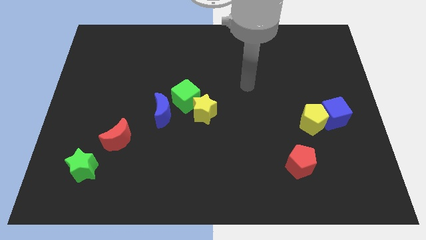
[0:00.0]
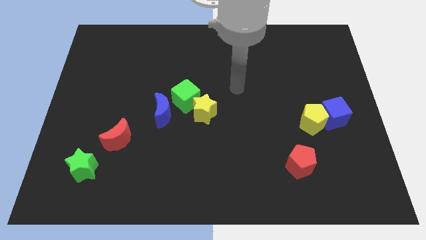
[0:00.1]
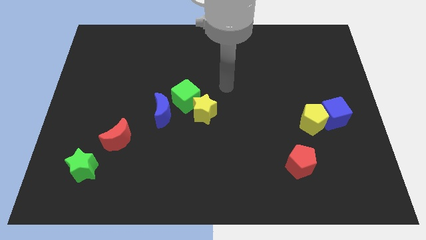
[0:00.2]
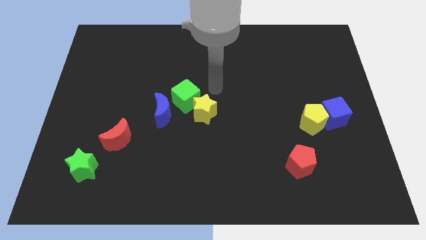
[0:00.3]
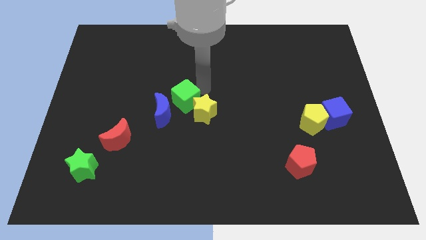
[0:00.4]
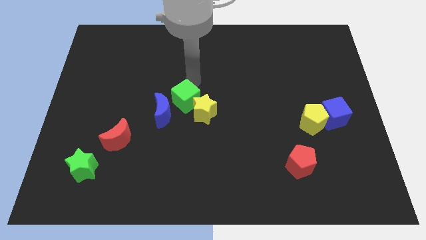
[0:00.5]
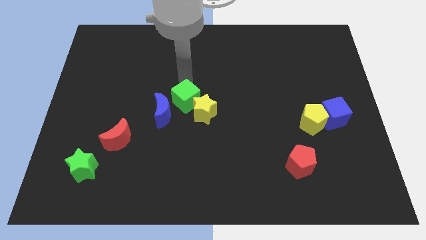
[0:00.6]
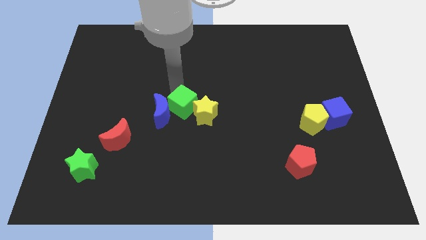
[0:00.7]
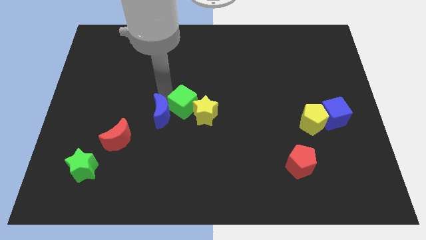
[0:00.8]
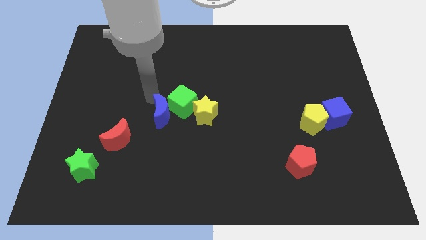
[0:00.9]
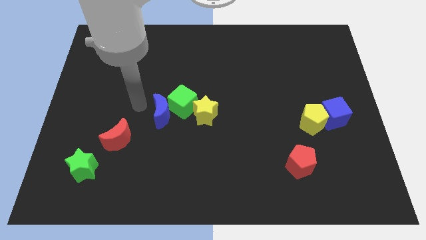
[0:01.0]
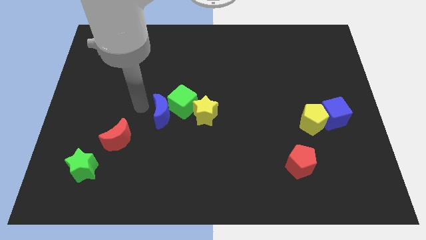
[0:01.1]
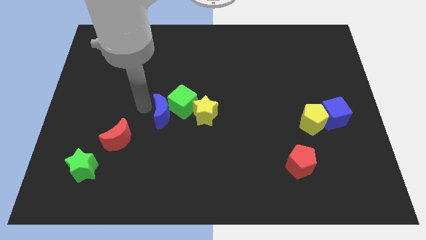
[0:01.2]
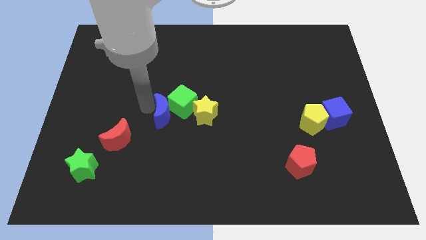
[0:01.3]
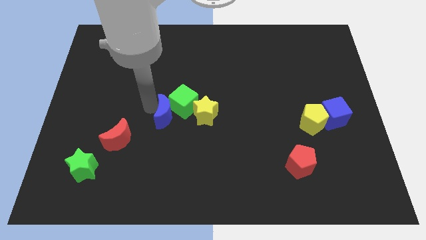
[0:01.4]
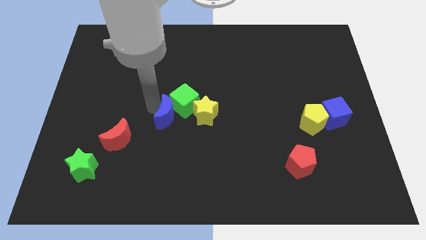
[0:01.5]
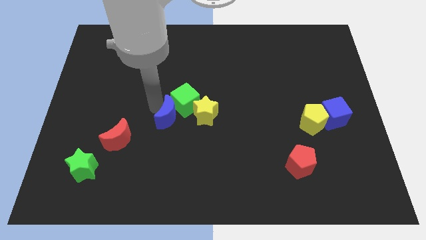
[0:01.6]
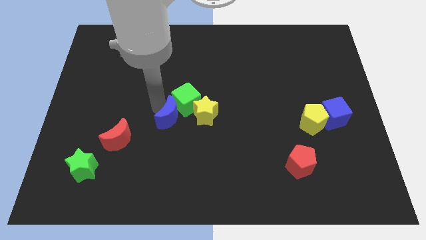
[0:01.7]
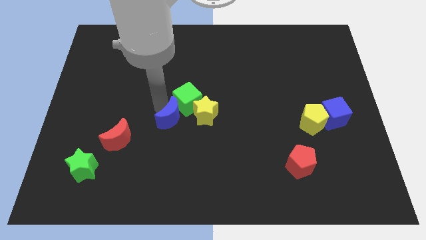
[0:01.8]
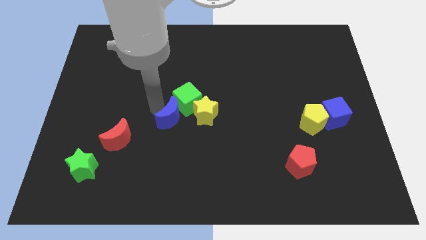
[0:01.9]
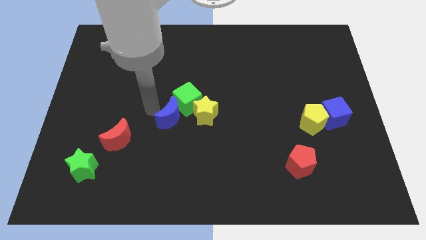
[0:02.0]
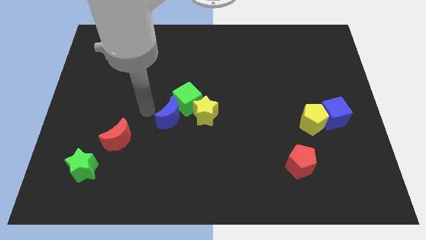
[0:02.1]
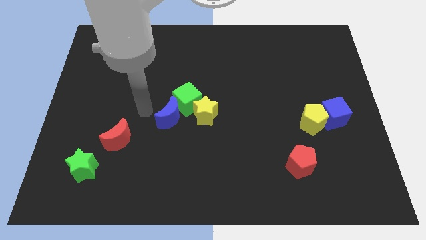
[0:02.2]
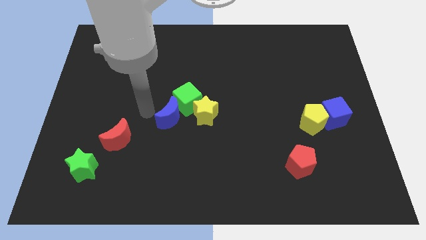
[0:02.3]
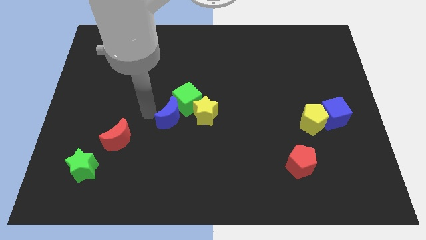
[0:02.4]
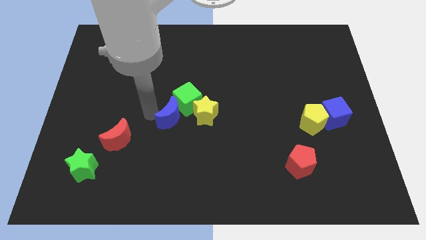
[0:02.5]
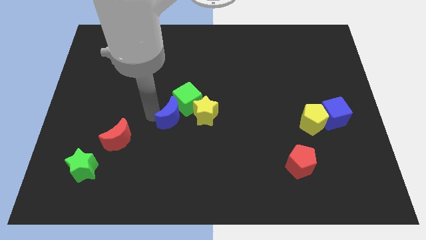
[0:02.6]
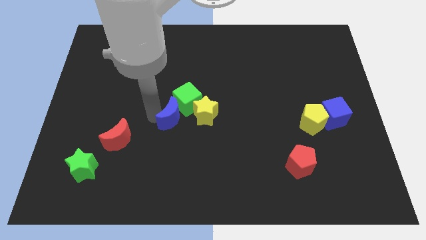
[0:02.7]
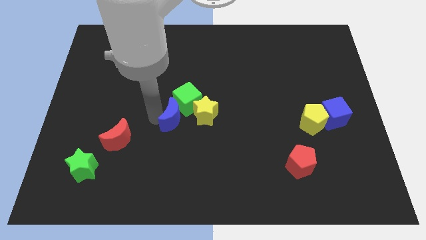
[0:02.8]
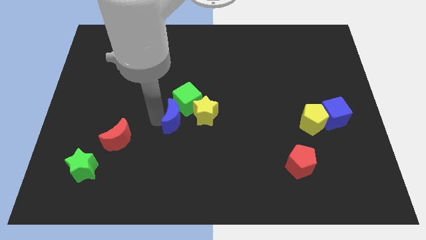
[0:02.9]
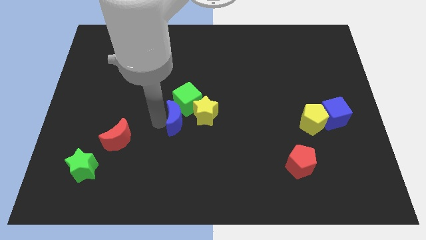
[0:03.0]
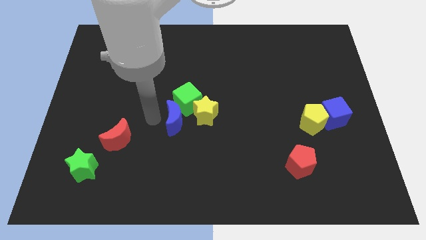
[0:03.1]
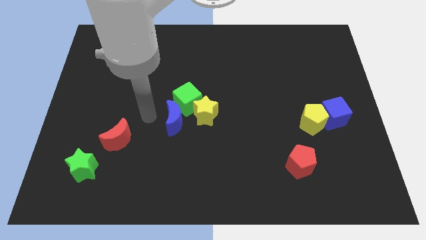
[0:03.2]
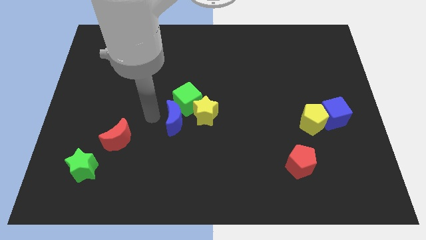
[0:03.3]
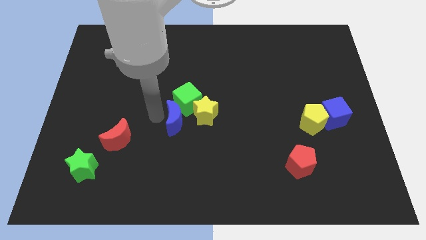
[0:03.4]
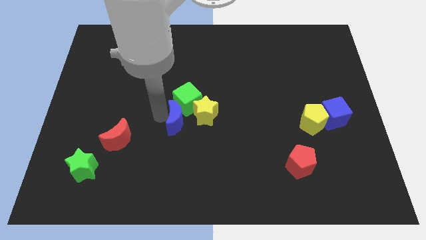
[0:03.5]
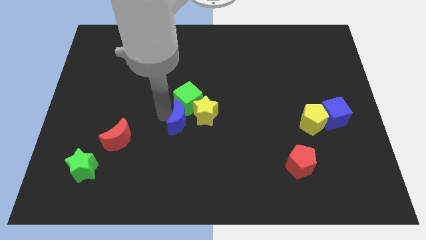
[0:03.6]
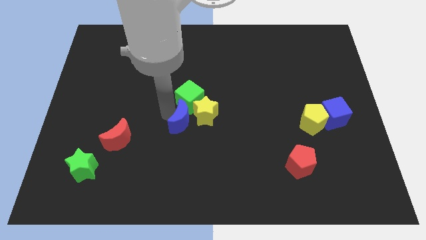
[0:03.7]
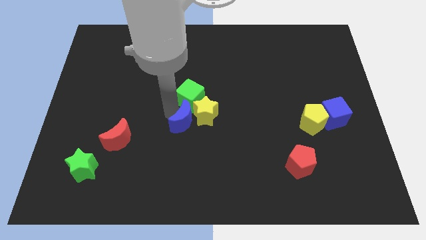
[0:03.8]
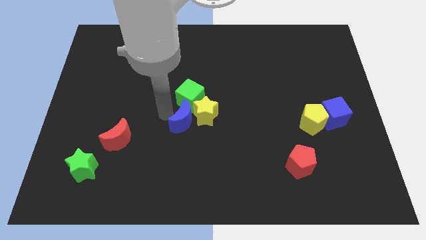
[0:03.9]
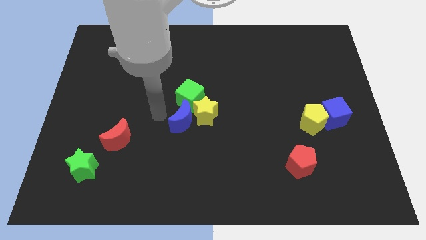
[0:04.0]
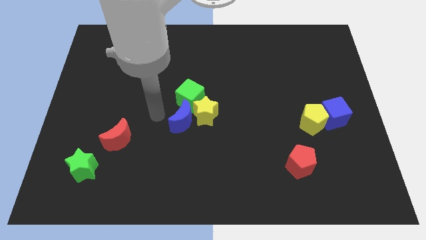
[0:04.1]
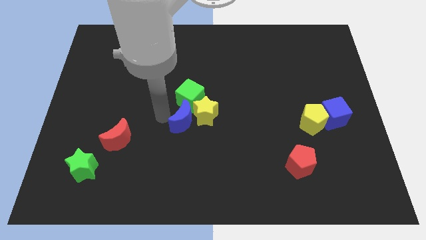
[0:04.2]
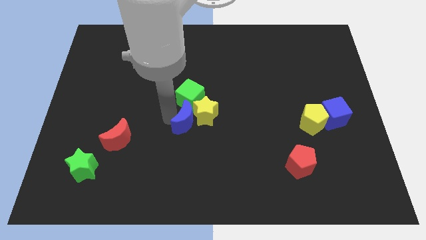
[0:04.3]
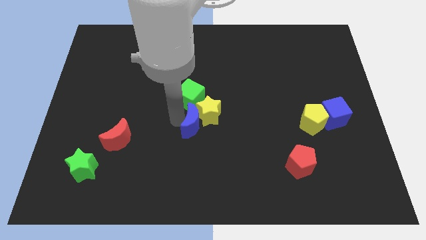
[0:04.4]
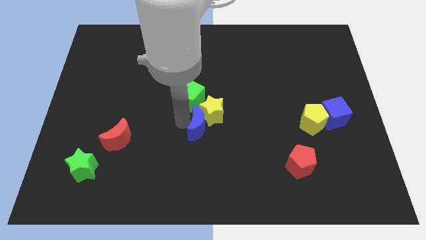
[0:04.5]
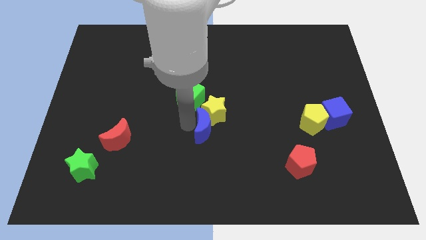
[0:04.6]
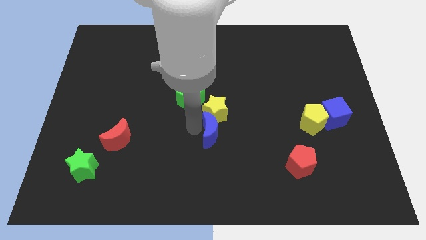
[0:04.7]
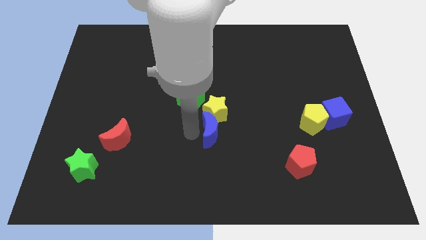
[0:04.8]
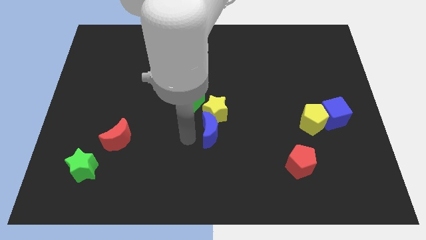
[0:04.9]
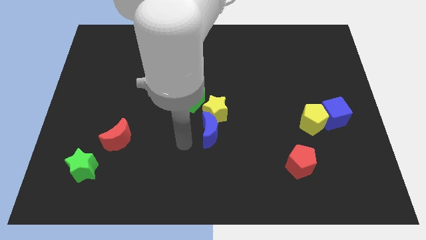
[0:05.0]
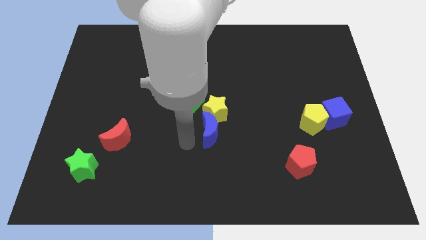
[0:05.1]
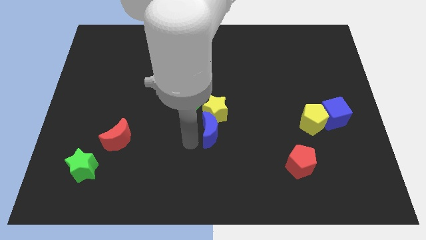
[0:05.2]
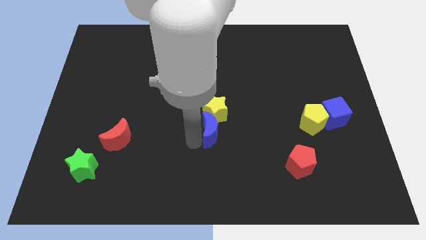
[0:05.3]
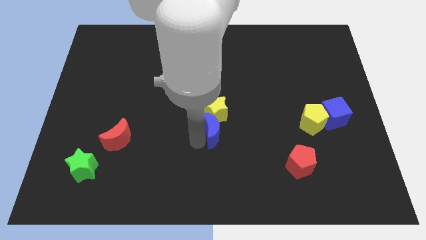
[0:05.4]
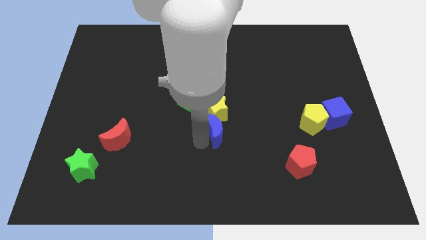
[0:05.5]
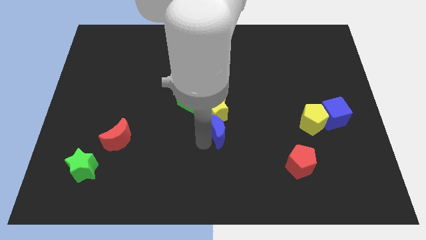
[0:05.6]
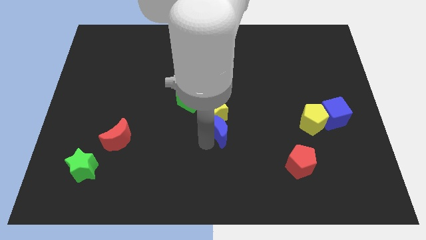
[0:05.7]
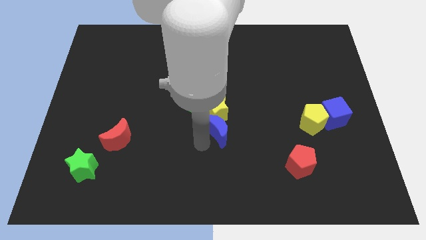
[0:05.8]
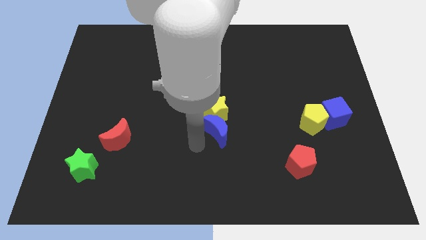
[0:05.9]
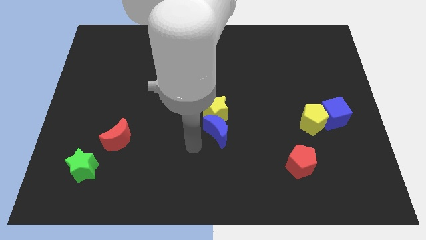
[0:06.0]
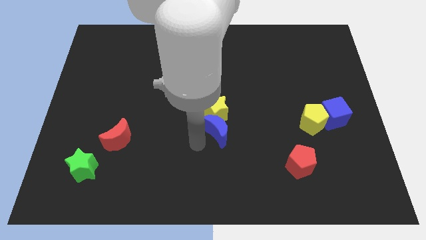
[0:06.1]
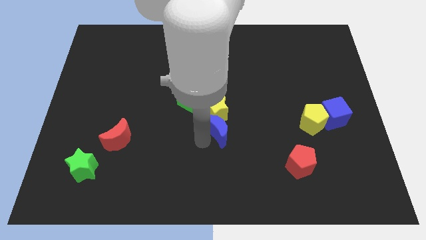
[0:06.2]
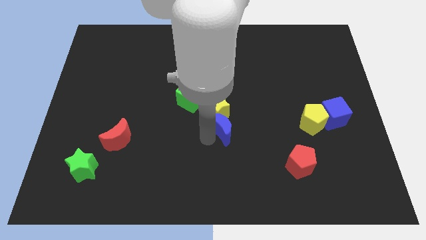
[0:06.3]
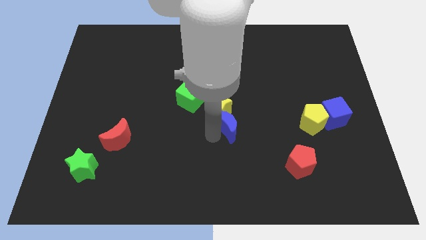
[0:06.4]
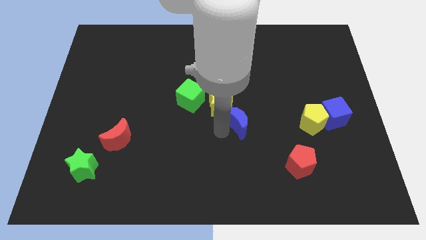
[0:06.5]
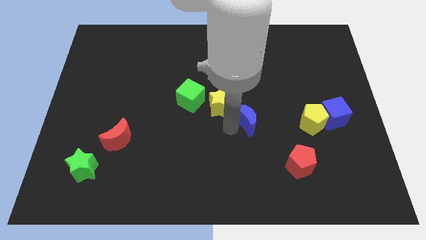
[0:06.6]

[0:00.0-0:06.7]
slide the blue moon just right of the yellow star

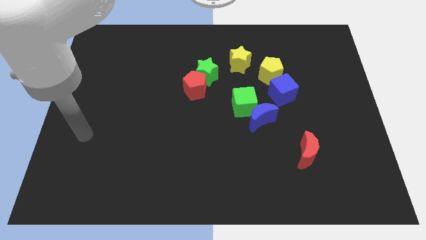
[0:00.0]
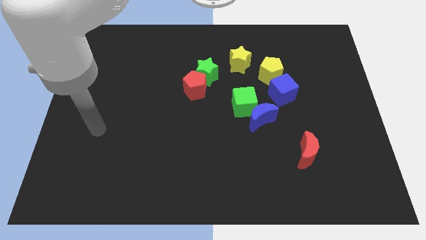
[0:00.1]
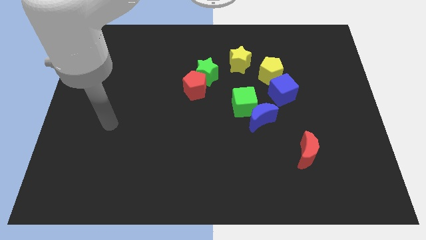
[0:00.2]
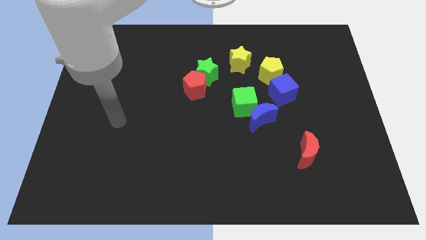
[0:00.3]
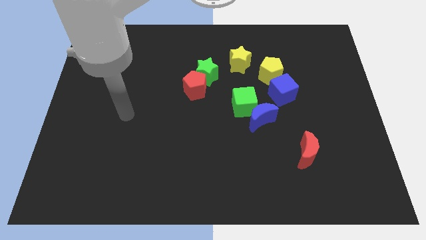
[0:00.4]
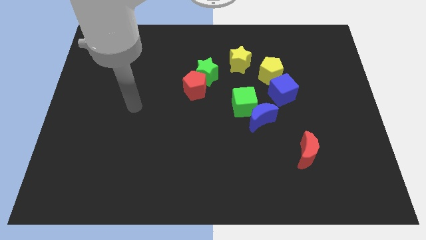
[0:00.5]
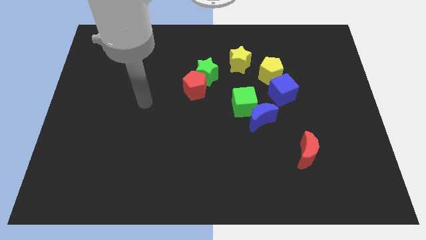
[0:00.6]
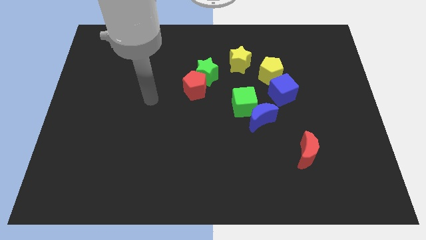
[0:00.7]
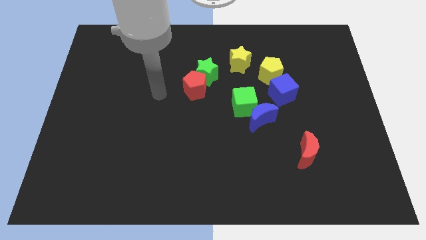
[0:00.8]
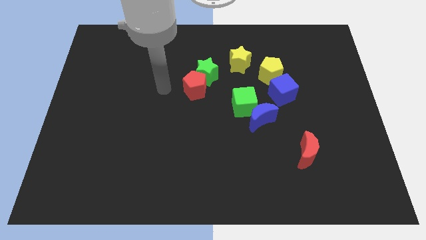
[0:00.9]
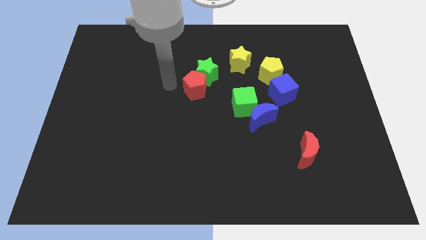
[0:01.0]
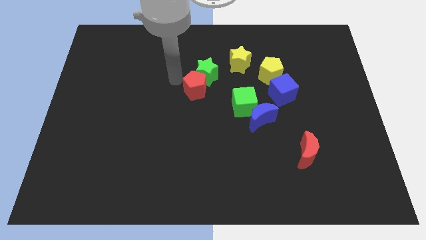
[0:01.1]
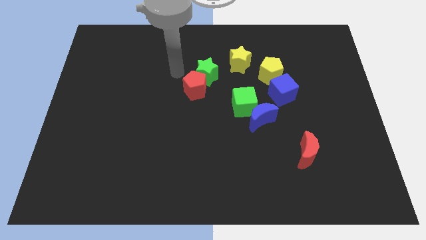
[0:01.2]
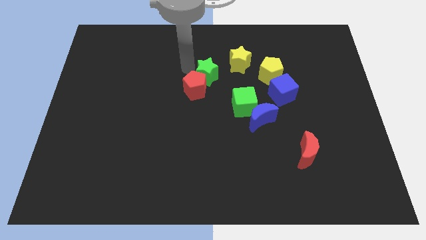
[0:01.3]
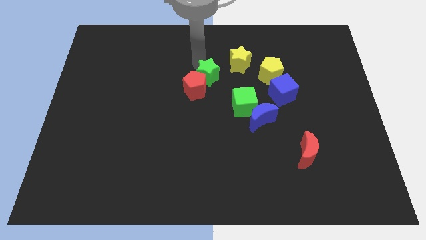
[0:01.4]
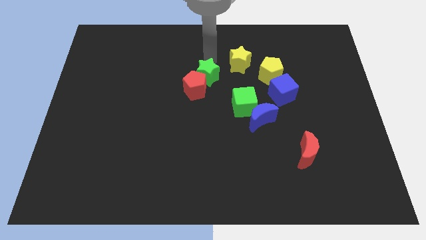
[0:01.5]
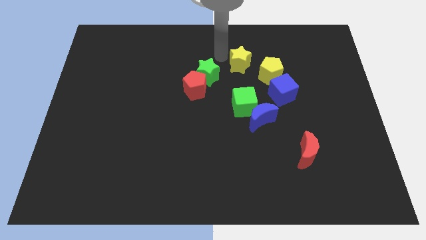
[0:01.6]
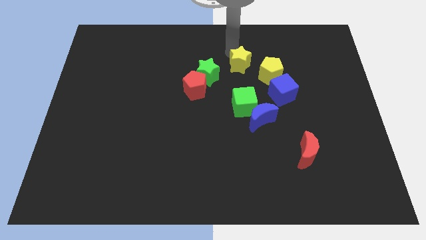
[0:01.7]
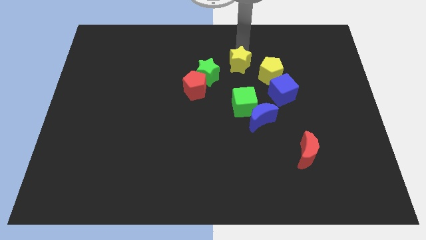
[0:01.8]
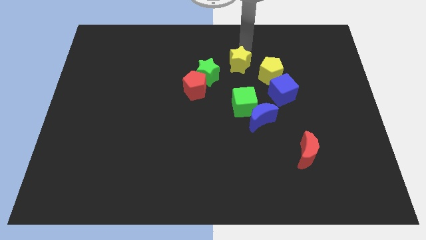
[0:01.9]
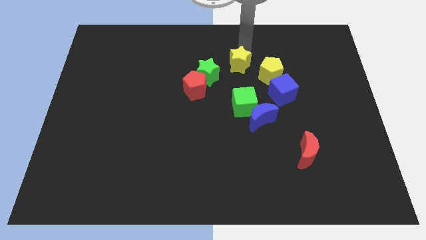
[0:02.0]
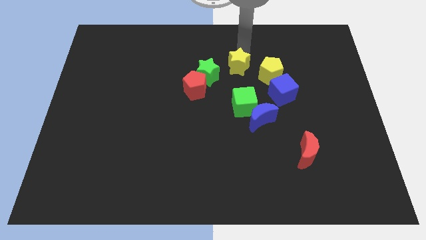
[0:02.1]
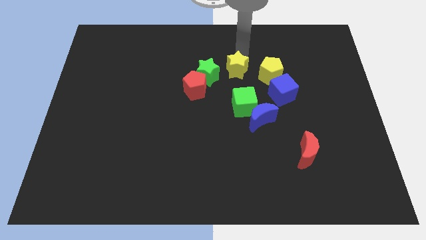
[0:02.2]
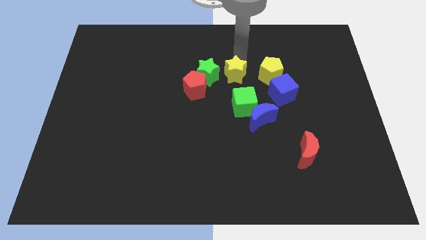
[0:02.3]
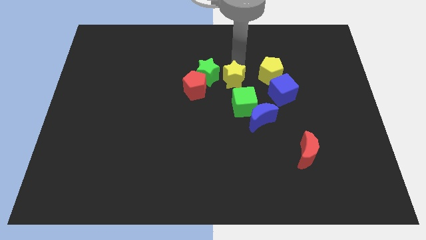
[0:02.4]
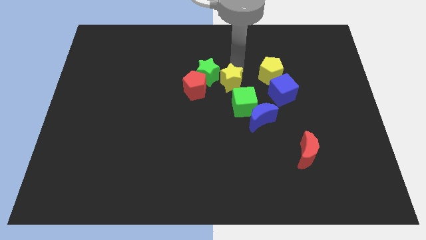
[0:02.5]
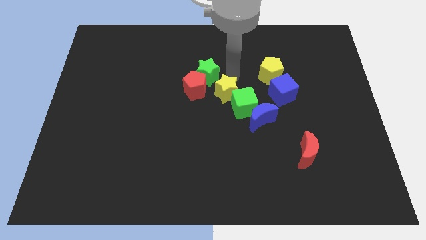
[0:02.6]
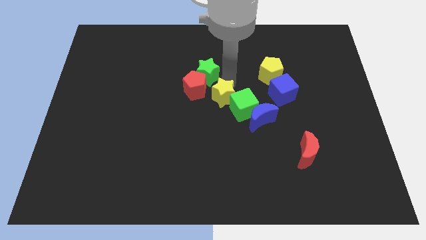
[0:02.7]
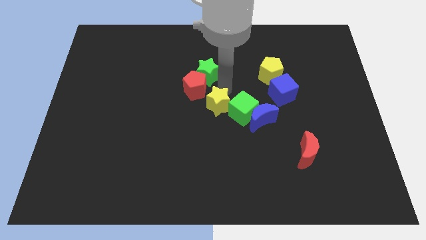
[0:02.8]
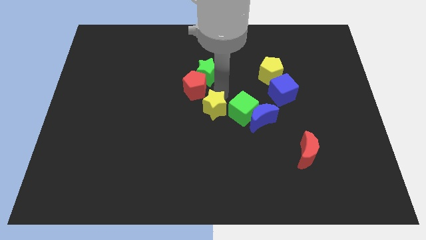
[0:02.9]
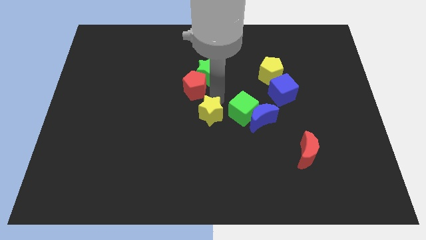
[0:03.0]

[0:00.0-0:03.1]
slide the yellow star to the bottom left side of the green cube
